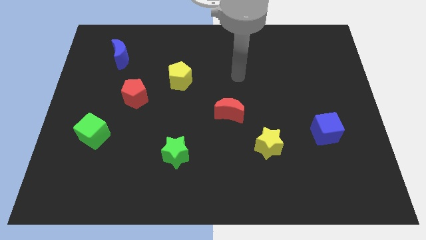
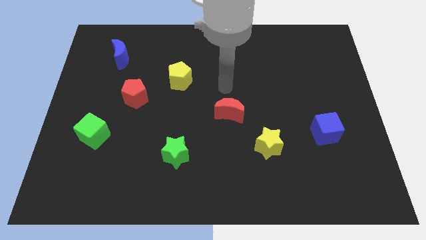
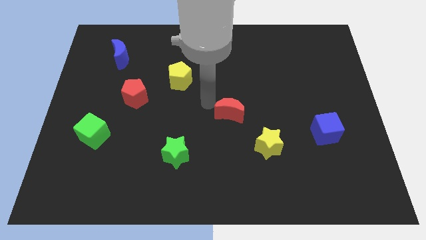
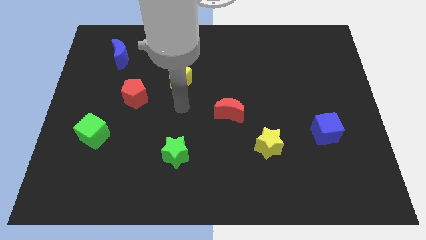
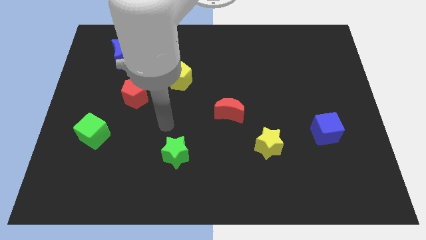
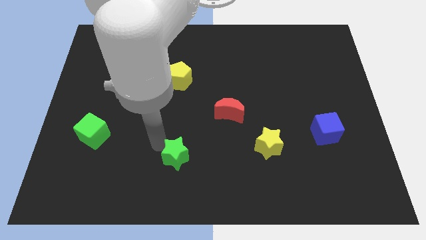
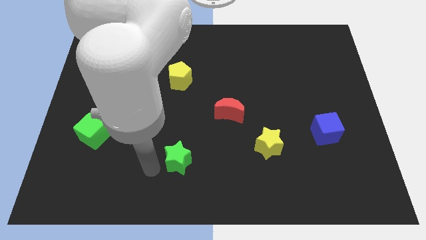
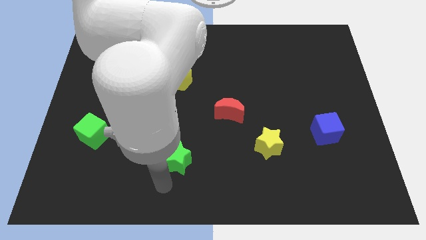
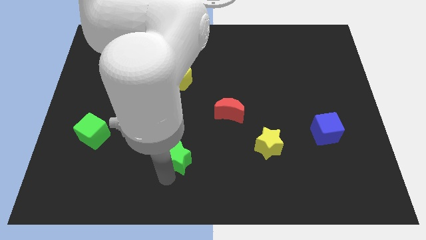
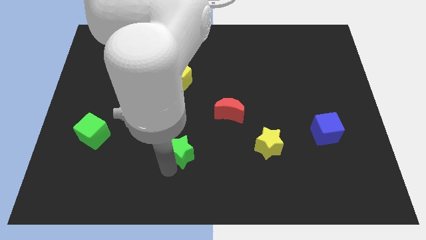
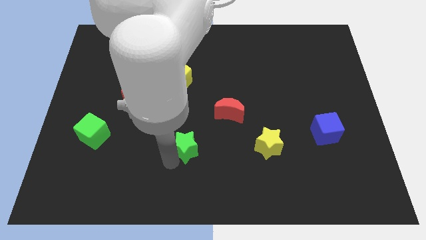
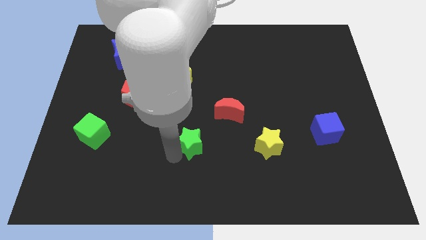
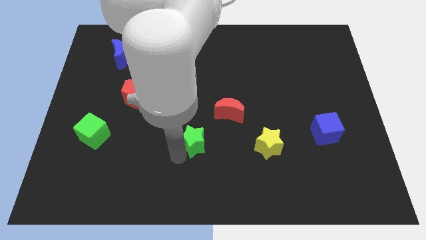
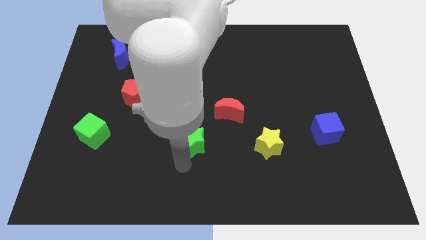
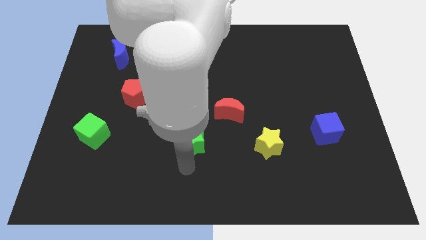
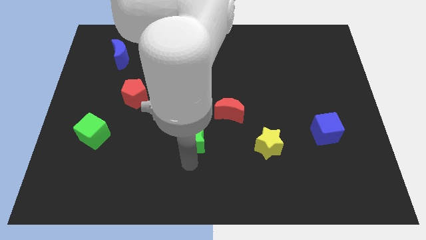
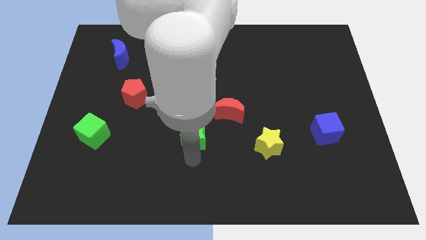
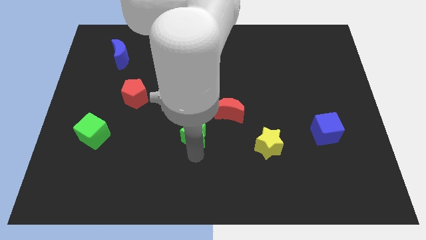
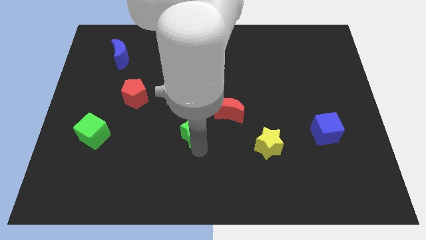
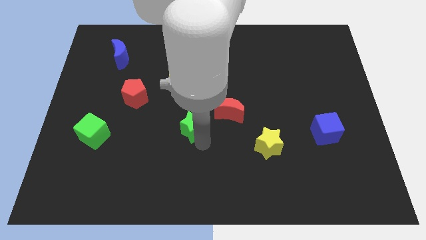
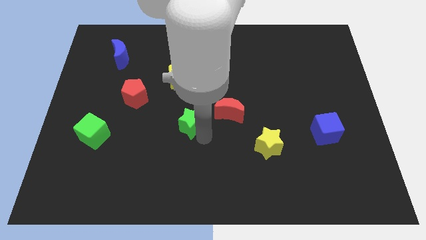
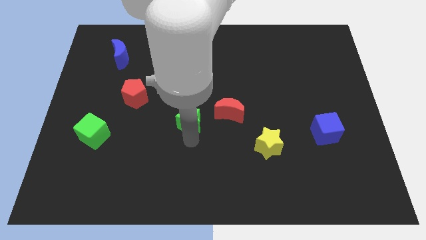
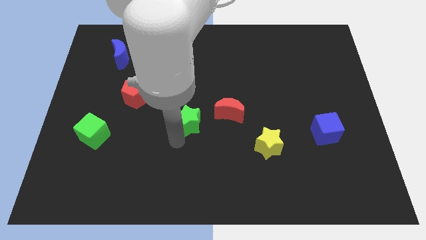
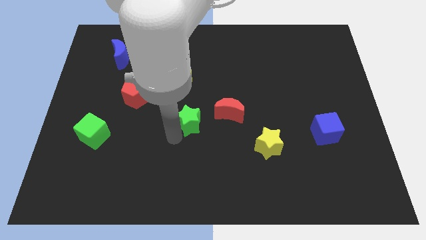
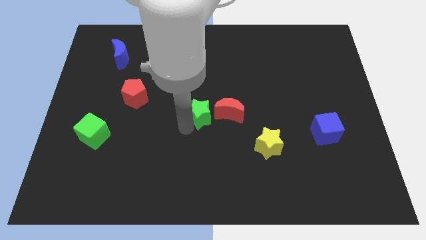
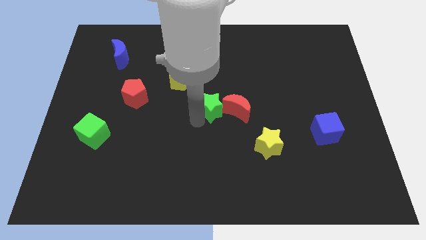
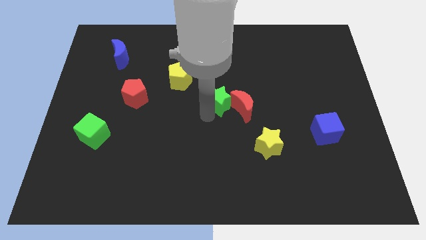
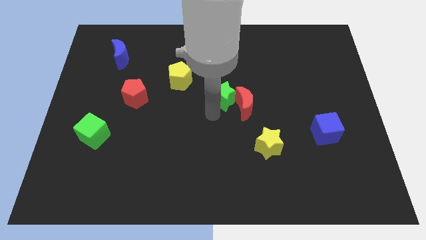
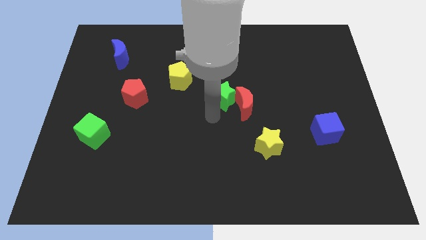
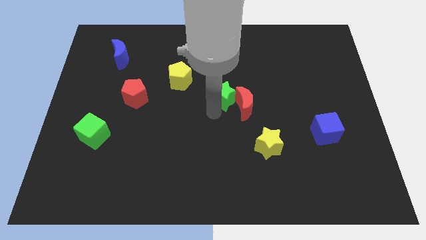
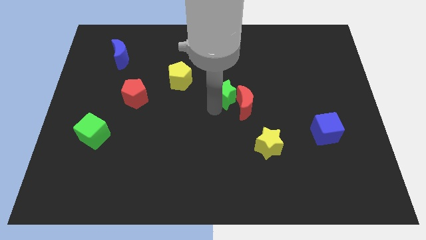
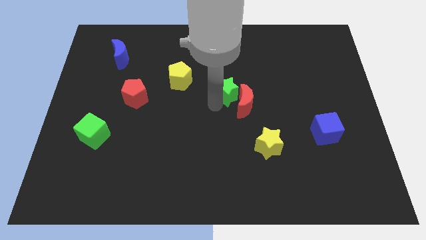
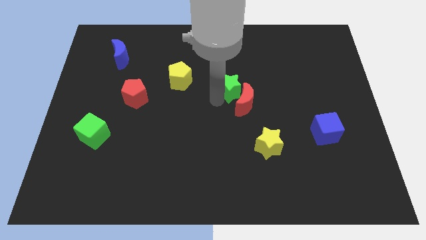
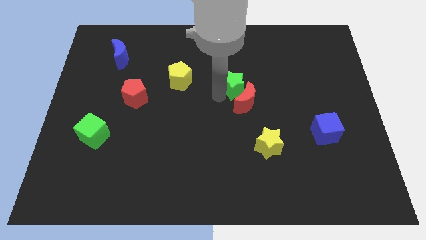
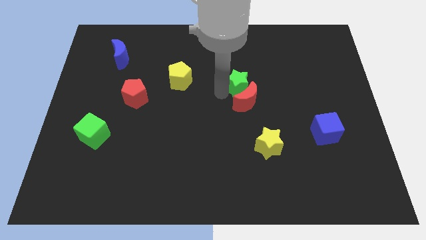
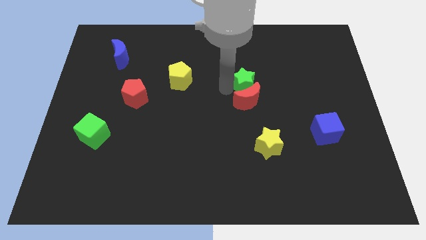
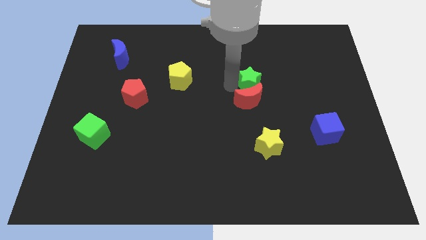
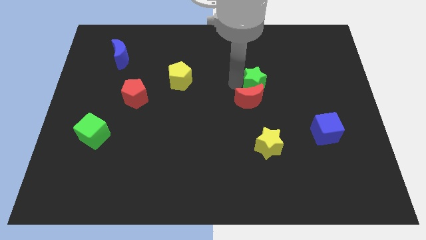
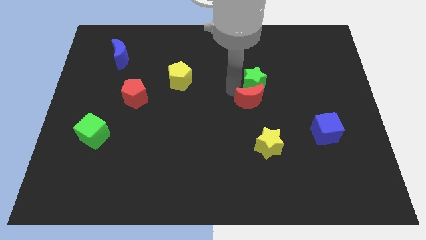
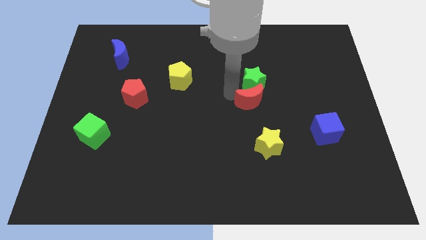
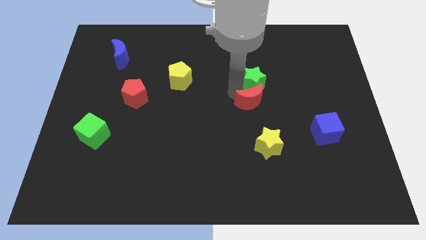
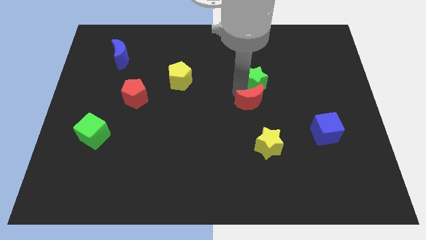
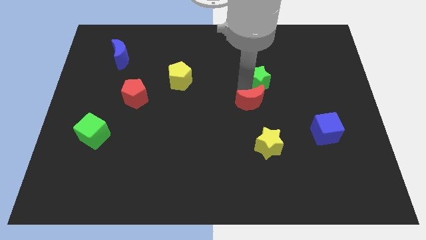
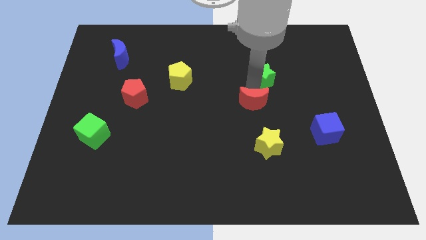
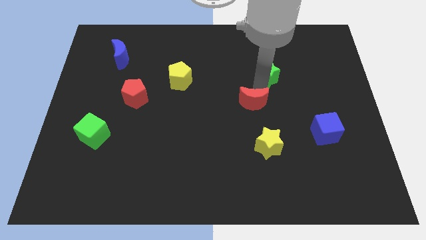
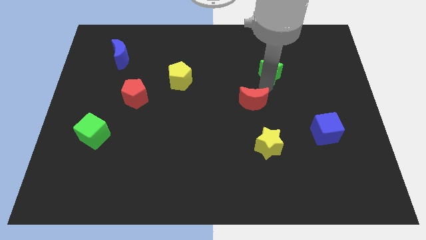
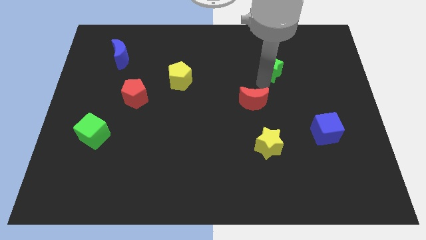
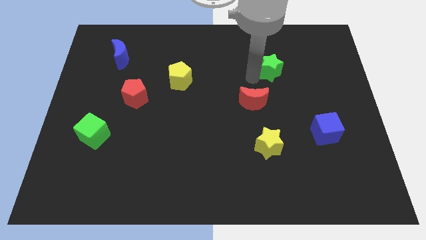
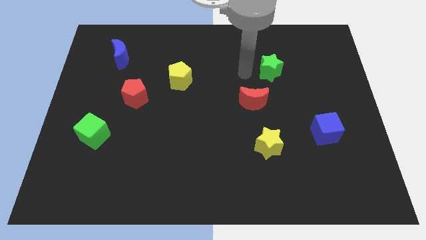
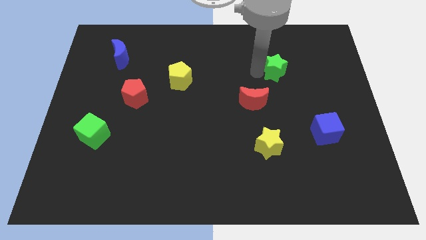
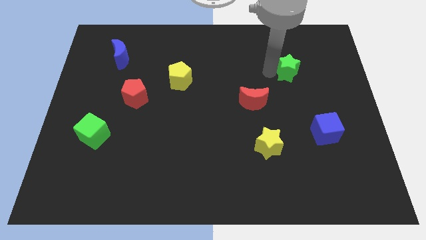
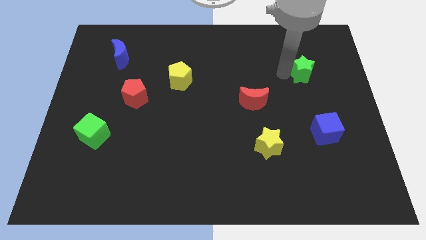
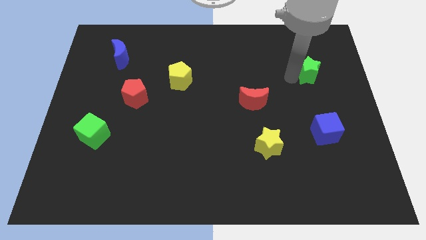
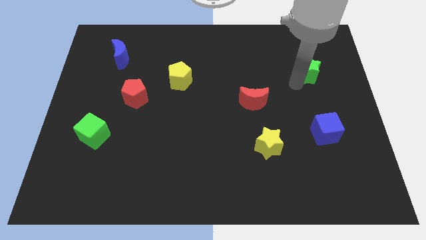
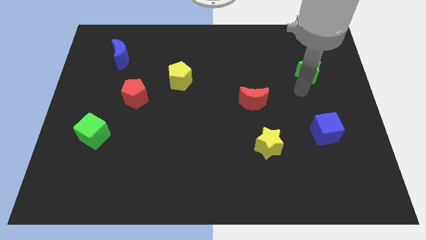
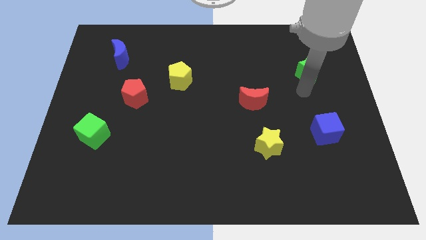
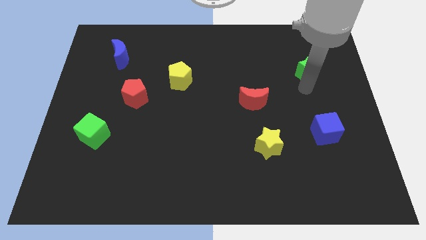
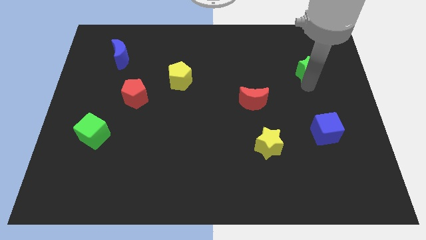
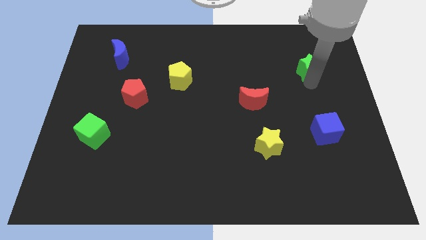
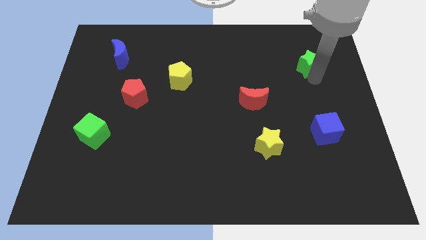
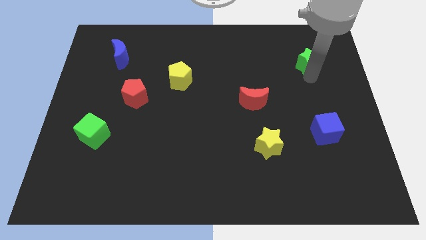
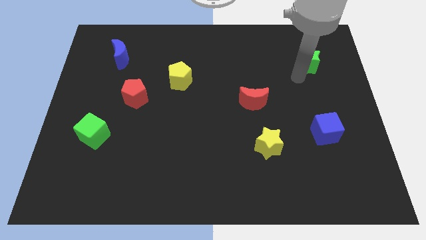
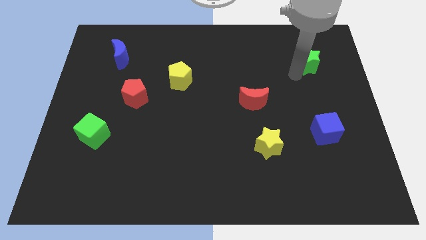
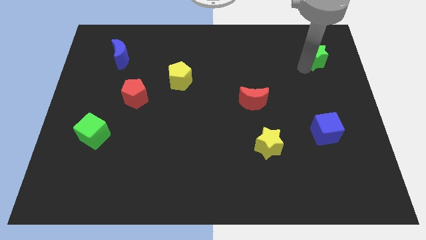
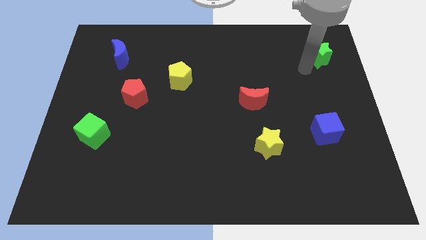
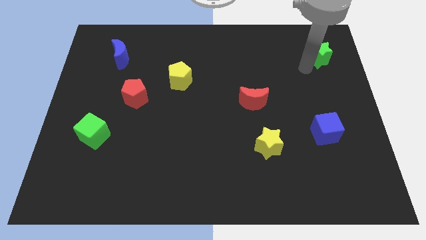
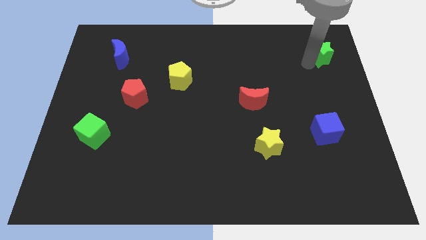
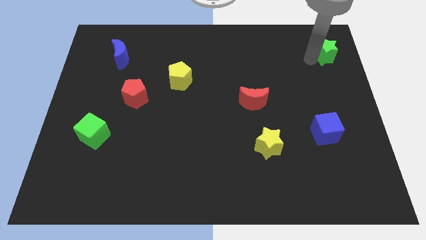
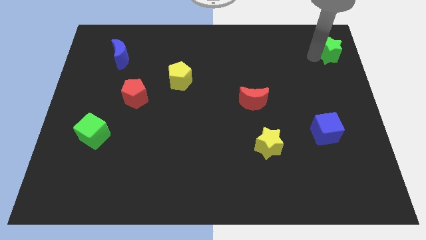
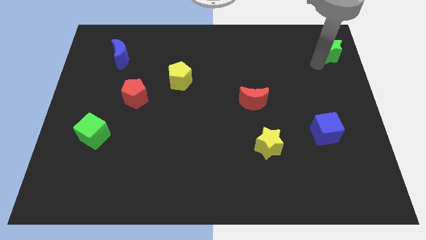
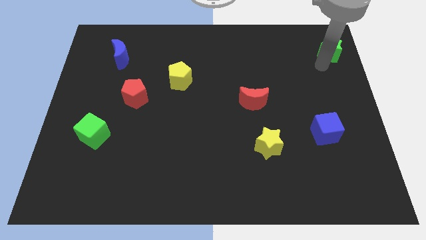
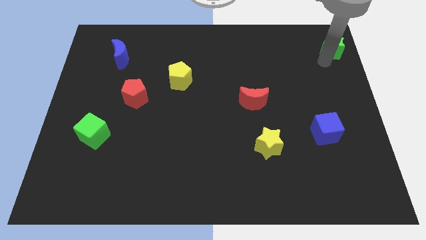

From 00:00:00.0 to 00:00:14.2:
move the green star to the upper right corner
